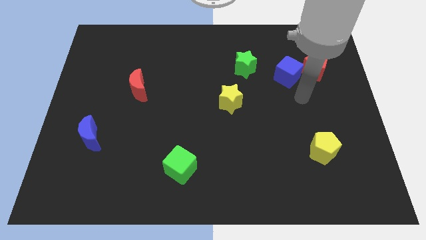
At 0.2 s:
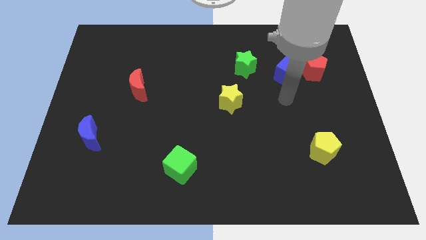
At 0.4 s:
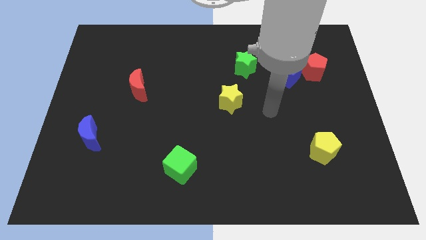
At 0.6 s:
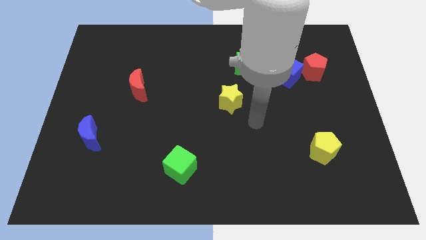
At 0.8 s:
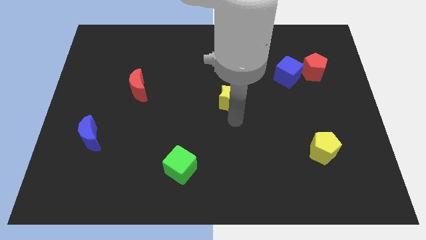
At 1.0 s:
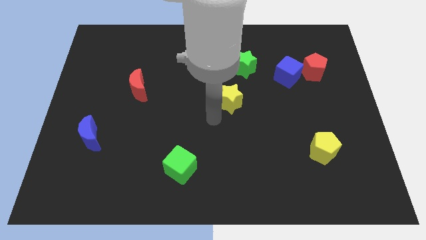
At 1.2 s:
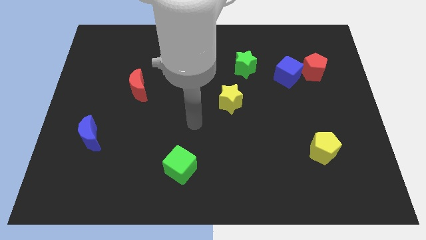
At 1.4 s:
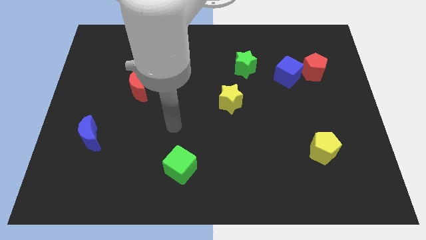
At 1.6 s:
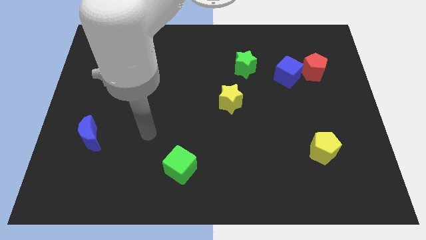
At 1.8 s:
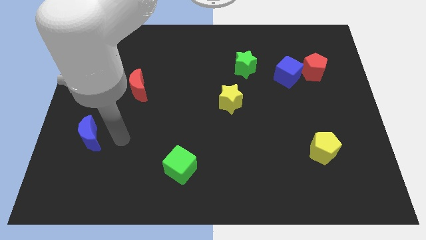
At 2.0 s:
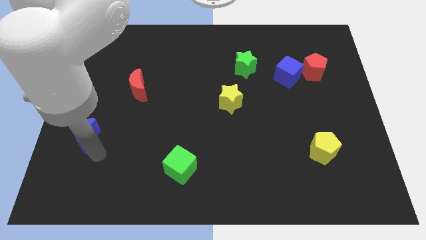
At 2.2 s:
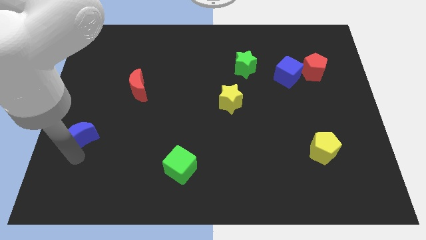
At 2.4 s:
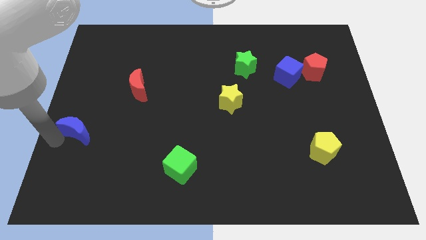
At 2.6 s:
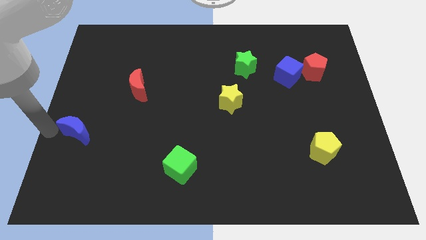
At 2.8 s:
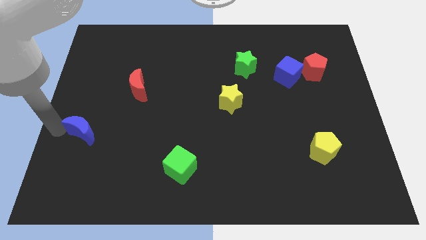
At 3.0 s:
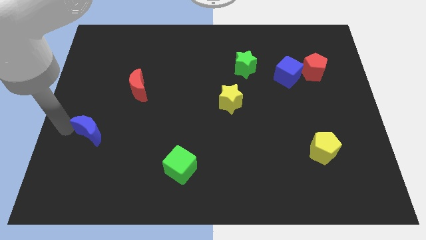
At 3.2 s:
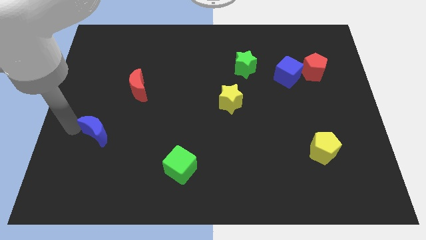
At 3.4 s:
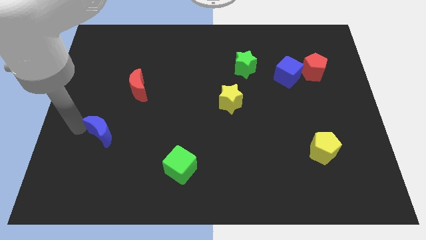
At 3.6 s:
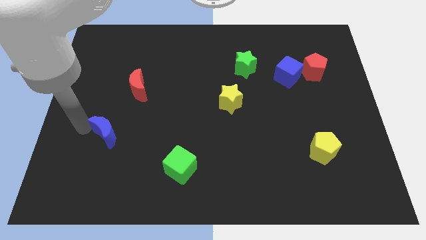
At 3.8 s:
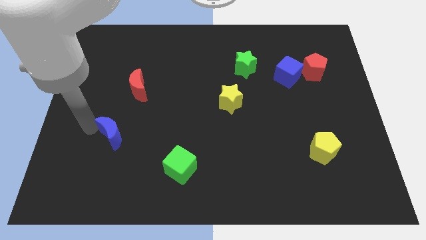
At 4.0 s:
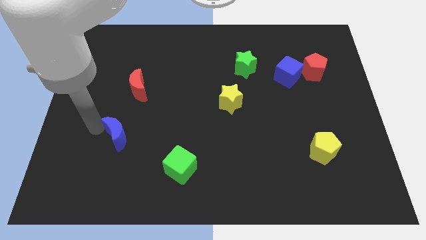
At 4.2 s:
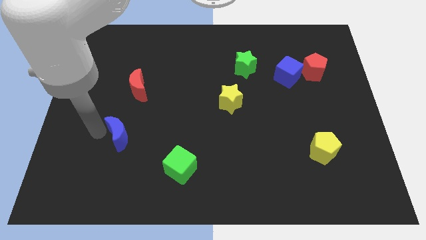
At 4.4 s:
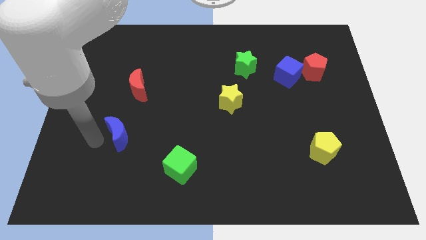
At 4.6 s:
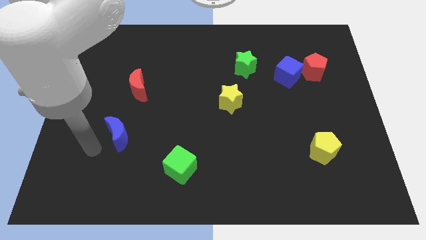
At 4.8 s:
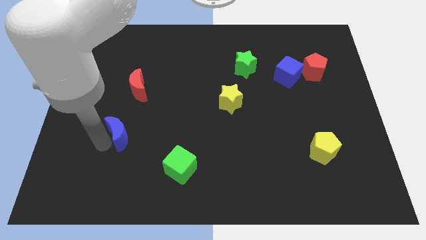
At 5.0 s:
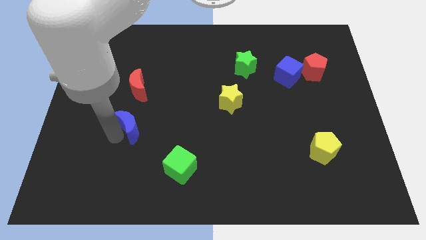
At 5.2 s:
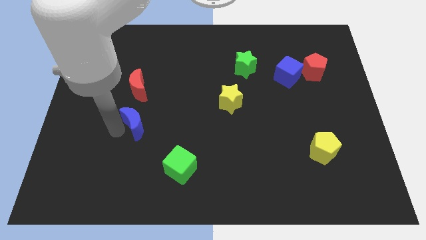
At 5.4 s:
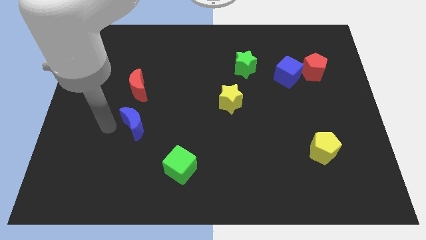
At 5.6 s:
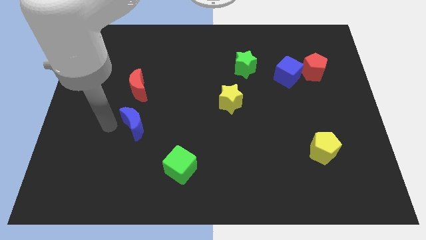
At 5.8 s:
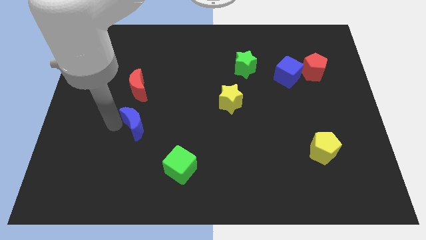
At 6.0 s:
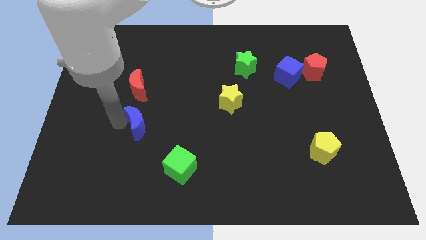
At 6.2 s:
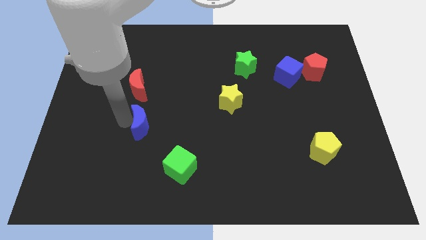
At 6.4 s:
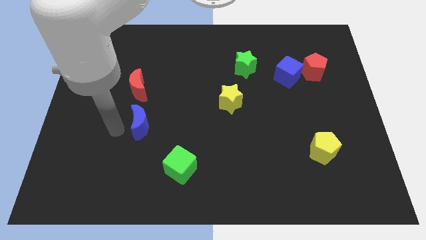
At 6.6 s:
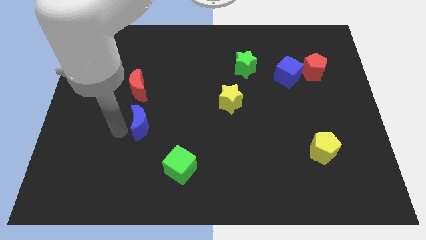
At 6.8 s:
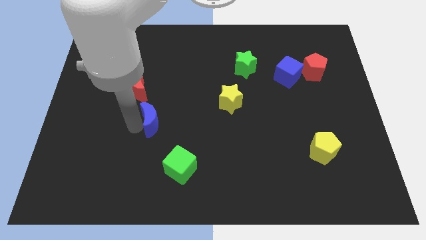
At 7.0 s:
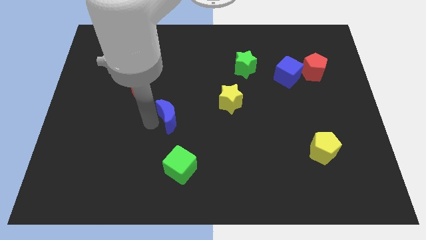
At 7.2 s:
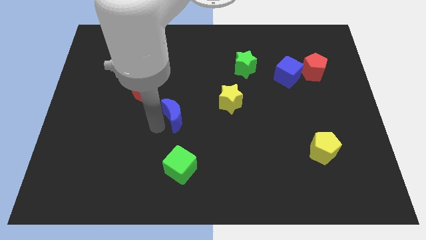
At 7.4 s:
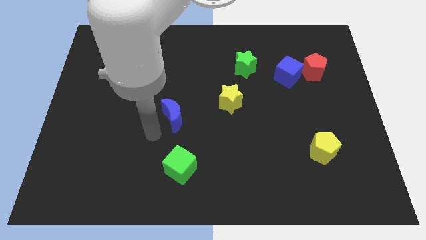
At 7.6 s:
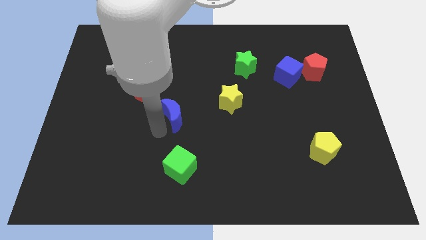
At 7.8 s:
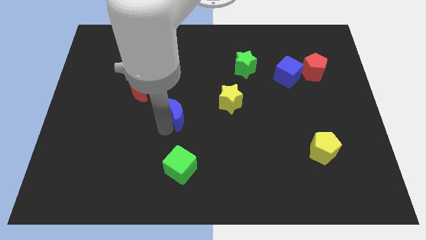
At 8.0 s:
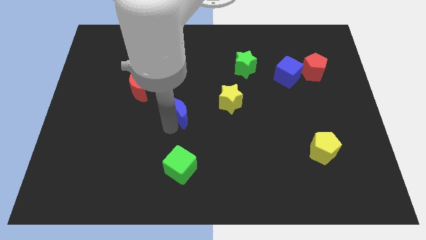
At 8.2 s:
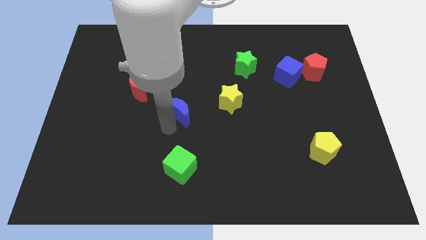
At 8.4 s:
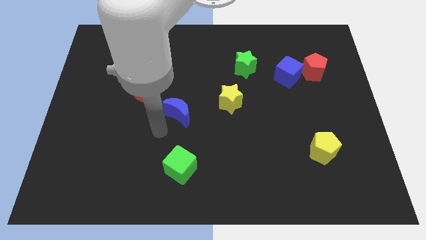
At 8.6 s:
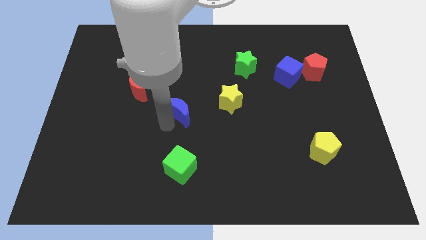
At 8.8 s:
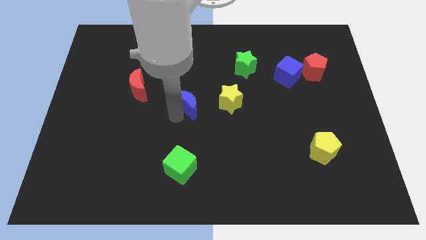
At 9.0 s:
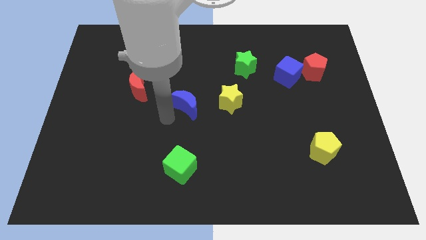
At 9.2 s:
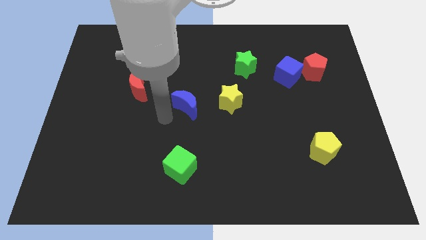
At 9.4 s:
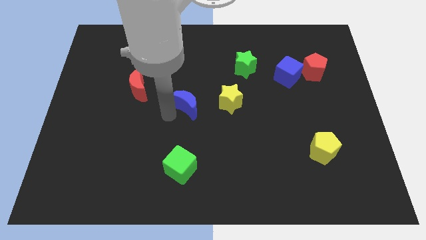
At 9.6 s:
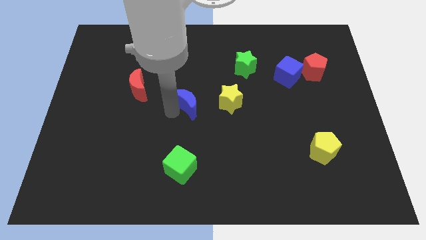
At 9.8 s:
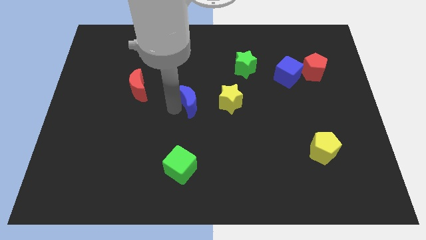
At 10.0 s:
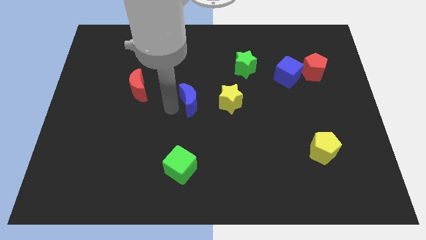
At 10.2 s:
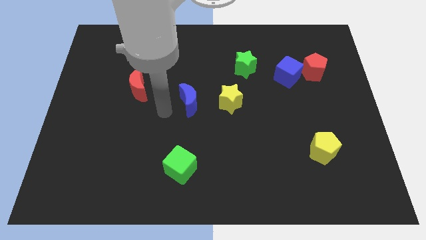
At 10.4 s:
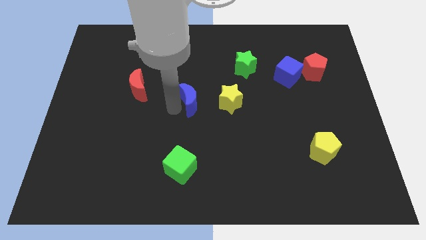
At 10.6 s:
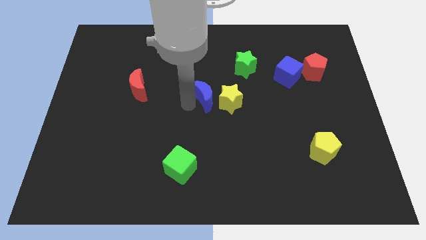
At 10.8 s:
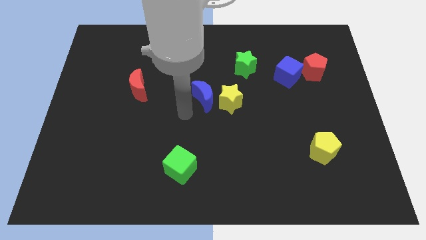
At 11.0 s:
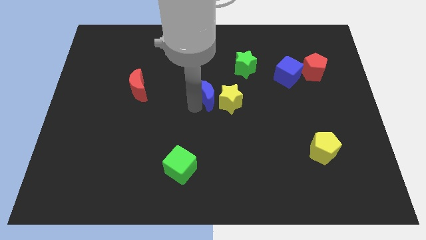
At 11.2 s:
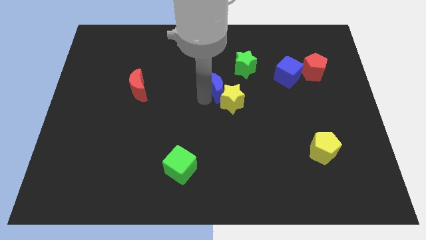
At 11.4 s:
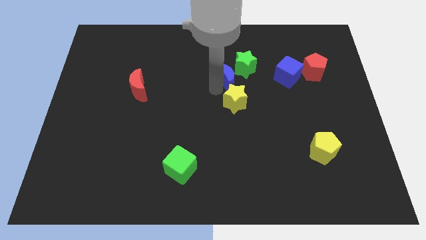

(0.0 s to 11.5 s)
put the blue moon close to the green star

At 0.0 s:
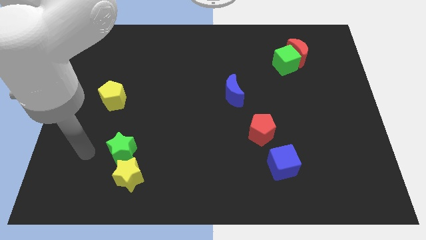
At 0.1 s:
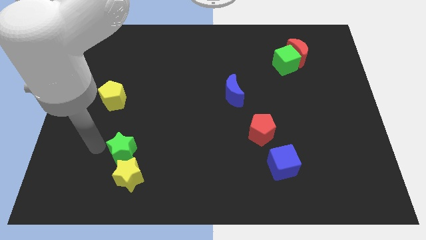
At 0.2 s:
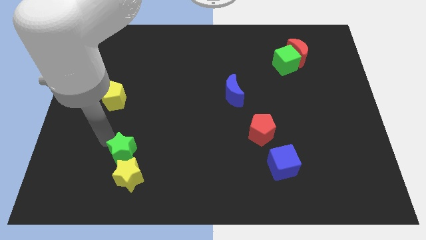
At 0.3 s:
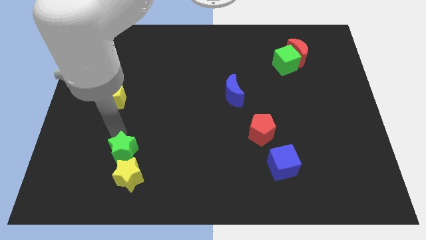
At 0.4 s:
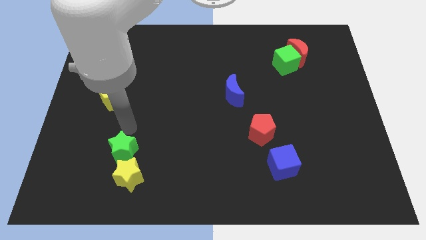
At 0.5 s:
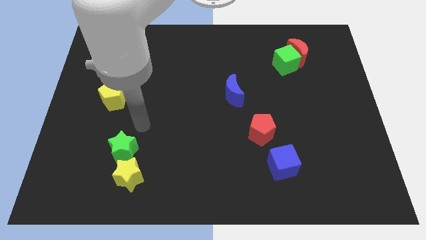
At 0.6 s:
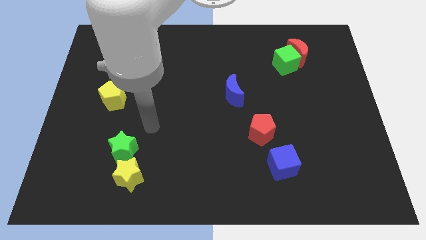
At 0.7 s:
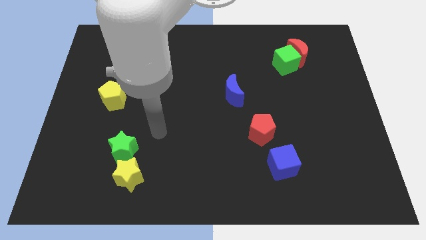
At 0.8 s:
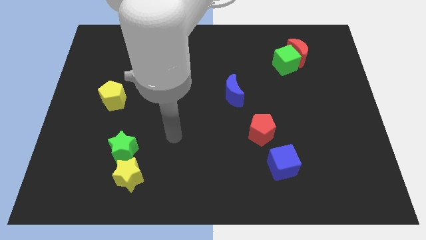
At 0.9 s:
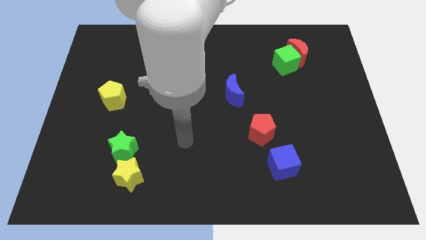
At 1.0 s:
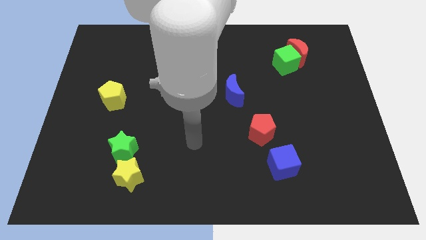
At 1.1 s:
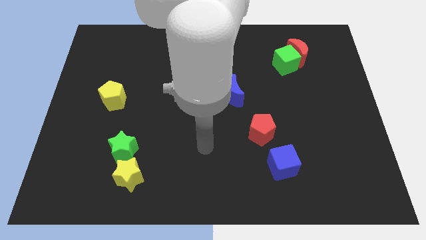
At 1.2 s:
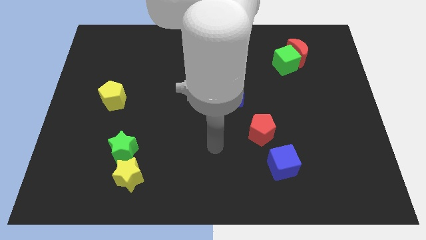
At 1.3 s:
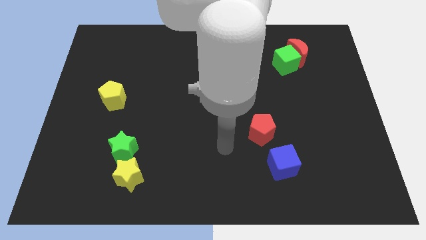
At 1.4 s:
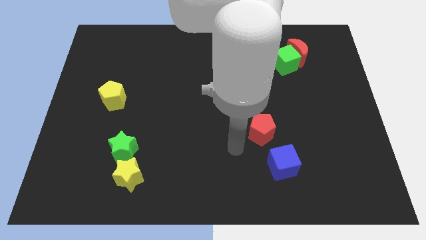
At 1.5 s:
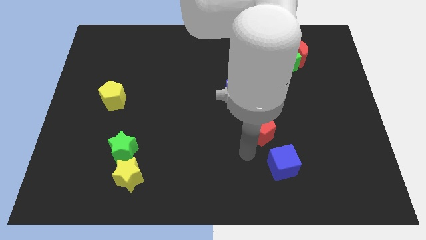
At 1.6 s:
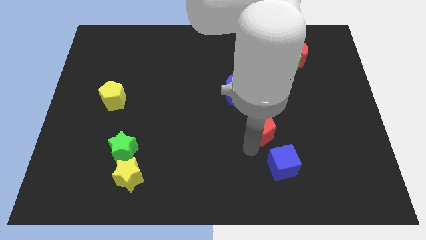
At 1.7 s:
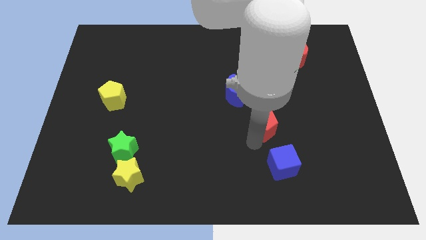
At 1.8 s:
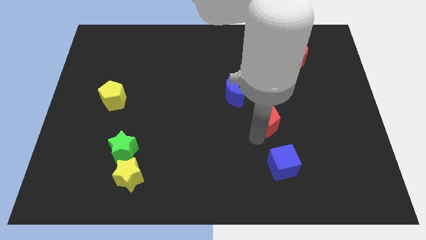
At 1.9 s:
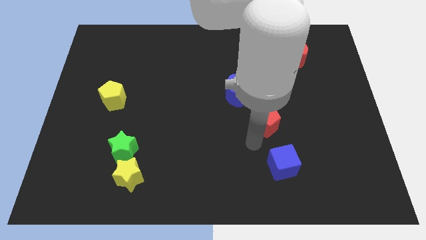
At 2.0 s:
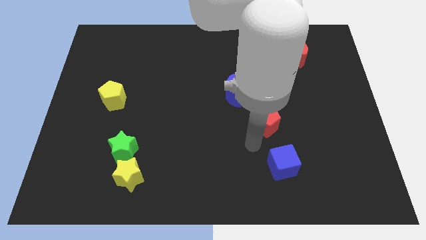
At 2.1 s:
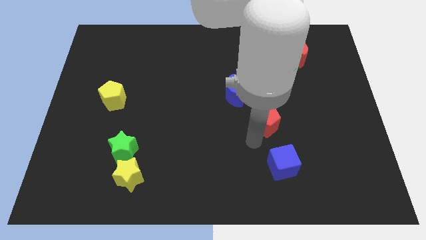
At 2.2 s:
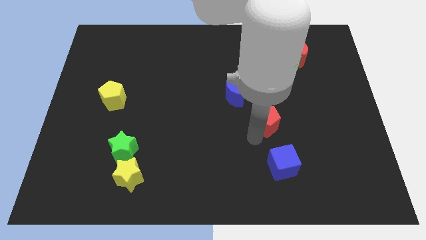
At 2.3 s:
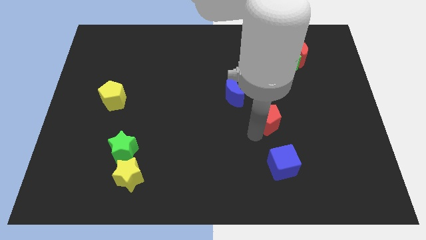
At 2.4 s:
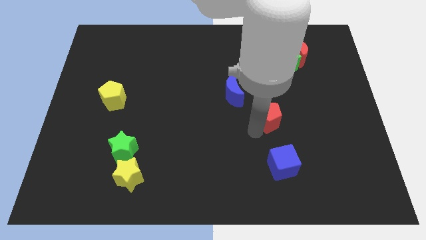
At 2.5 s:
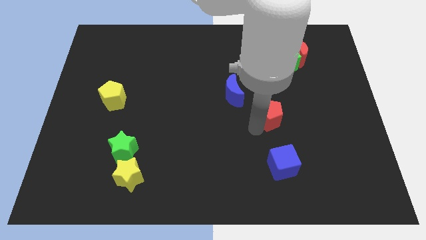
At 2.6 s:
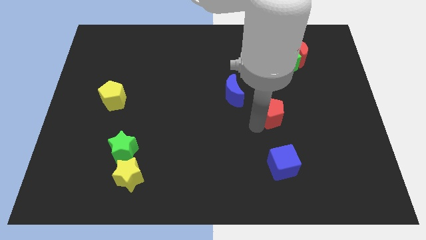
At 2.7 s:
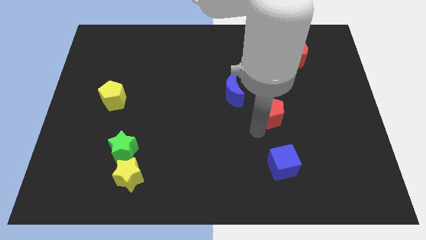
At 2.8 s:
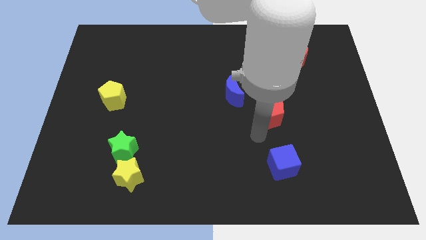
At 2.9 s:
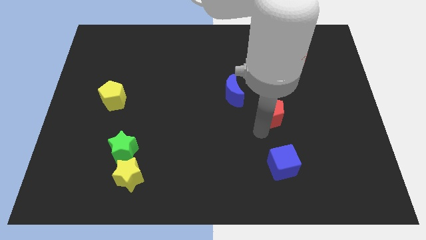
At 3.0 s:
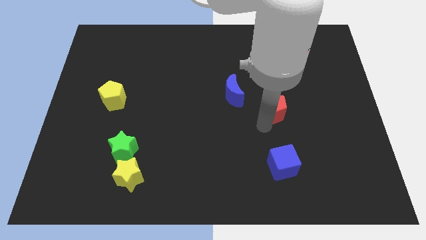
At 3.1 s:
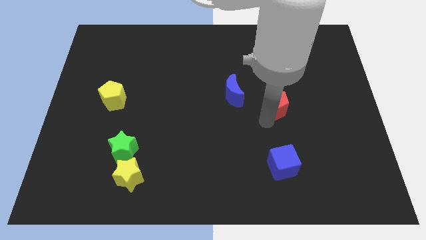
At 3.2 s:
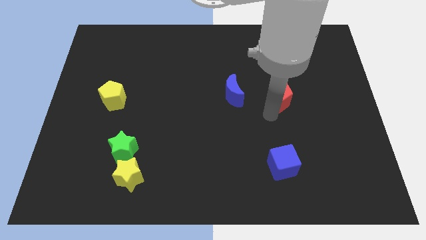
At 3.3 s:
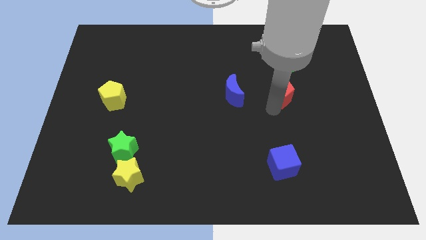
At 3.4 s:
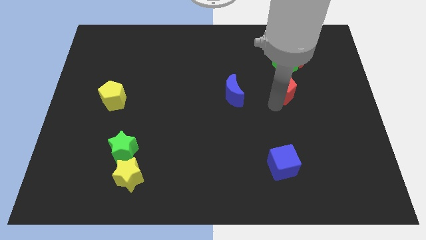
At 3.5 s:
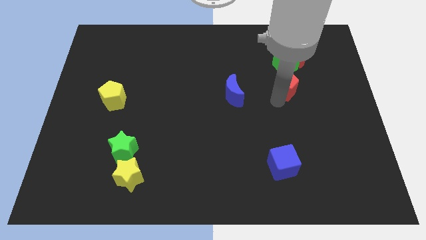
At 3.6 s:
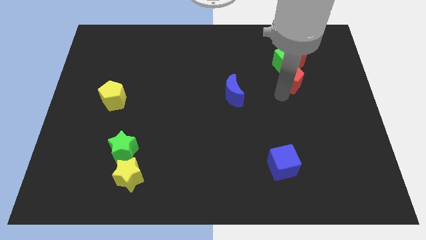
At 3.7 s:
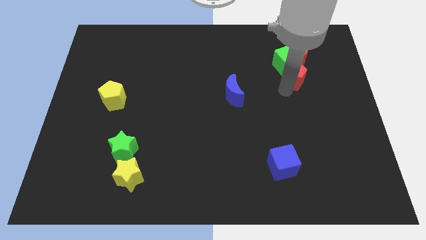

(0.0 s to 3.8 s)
put the red pentagon next to the green cube
